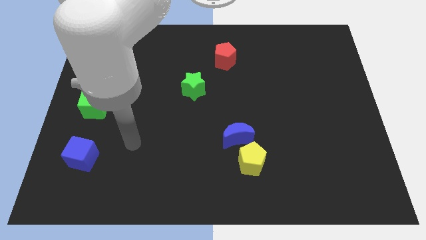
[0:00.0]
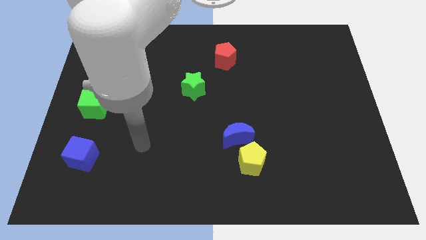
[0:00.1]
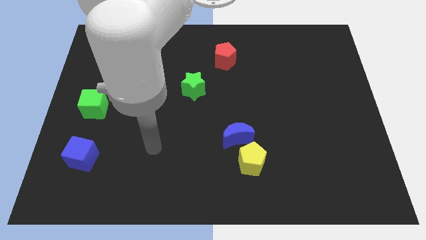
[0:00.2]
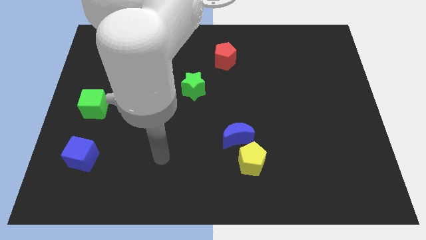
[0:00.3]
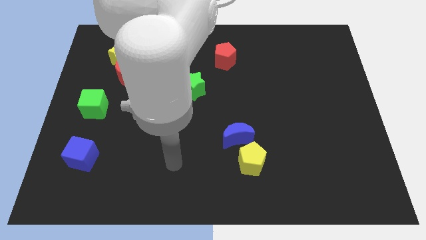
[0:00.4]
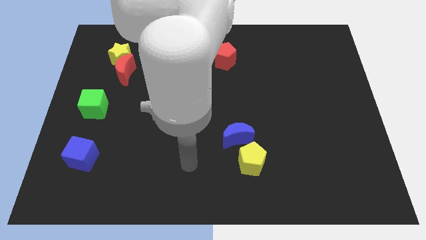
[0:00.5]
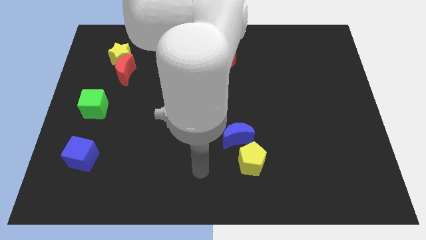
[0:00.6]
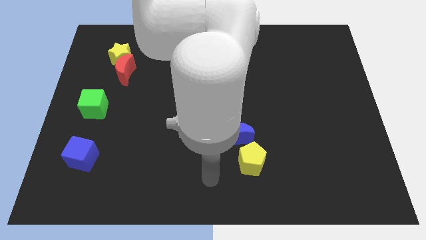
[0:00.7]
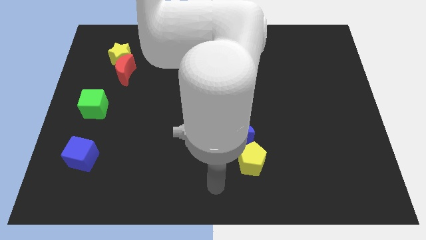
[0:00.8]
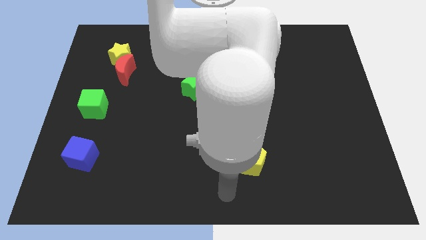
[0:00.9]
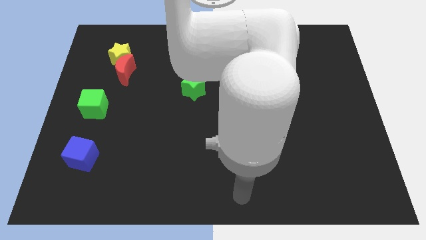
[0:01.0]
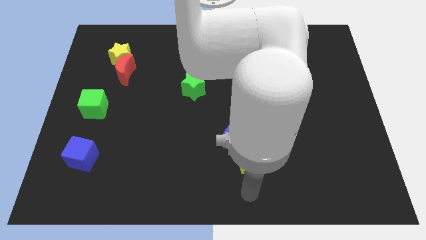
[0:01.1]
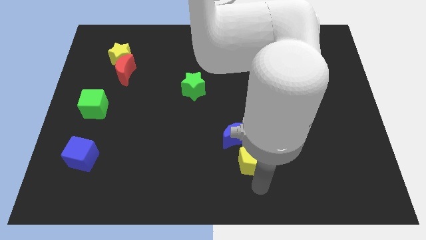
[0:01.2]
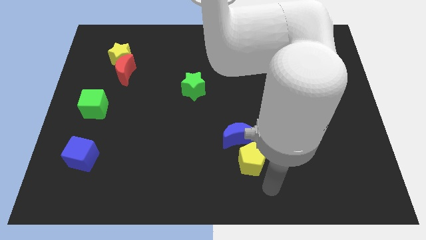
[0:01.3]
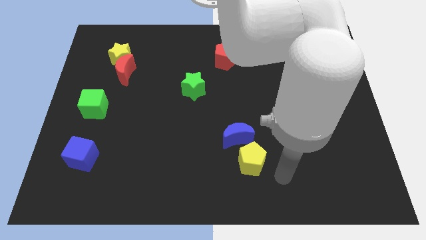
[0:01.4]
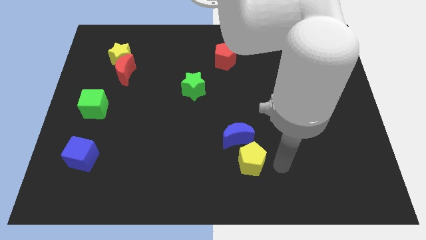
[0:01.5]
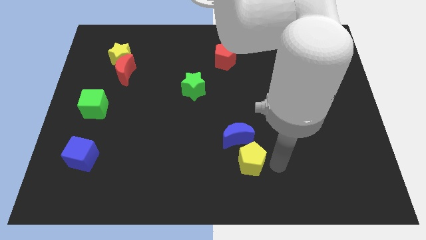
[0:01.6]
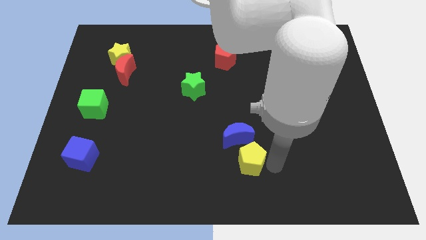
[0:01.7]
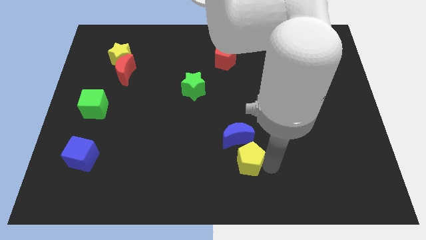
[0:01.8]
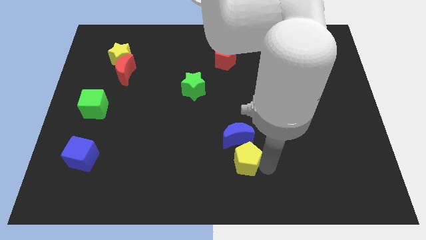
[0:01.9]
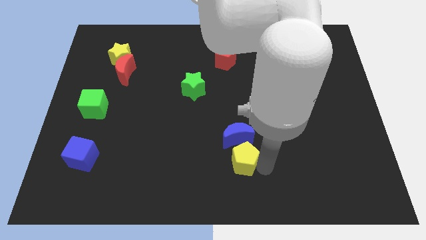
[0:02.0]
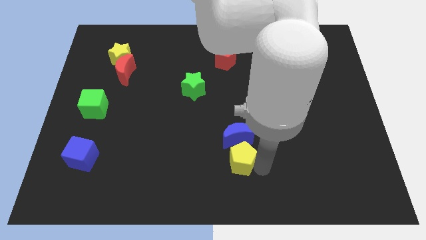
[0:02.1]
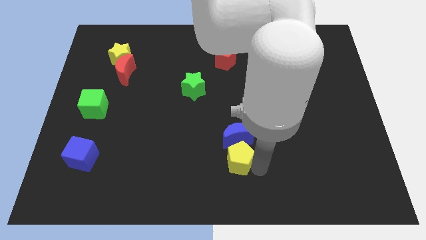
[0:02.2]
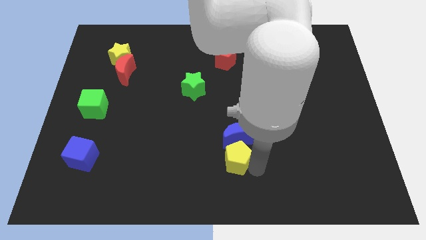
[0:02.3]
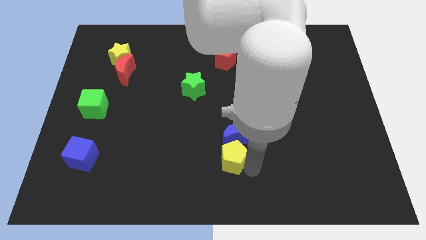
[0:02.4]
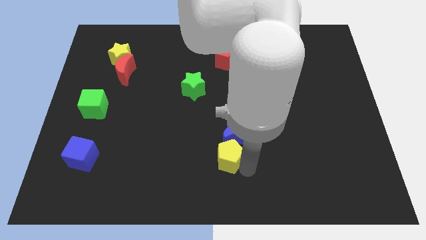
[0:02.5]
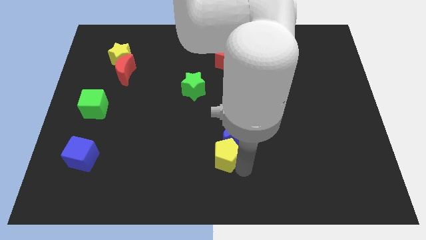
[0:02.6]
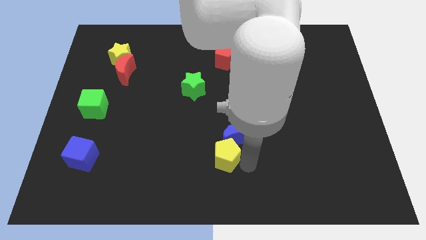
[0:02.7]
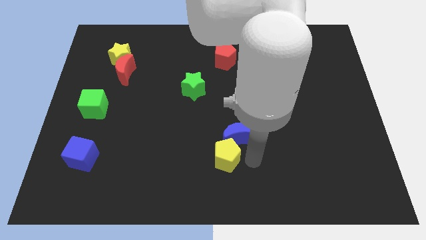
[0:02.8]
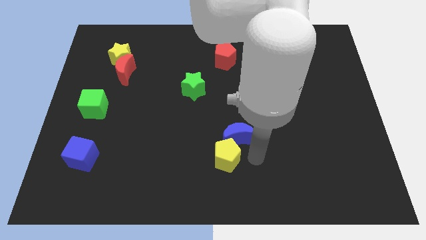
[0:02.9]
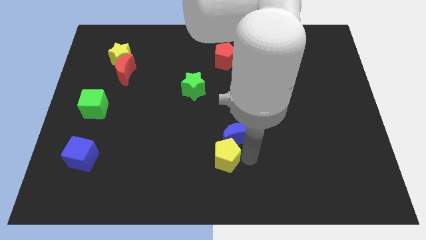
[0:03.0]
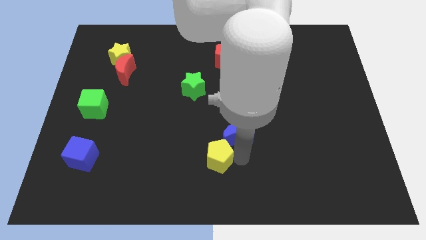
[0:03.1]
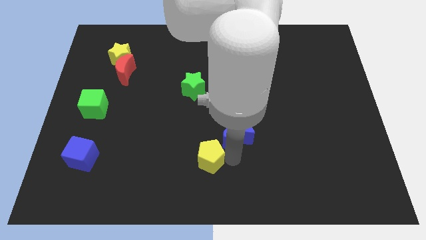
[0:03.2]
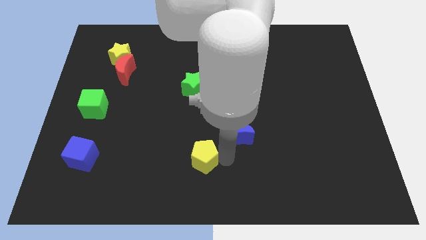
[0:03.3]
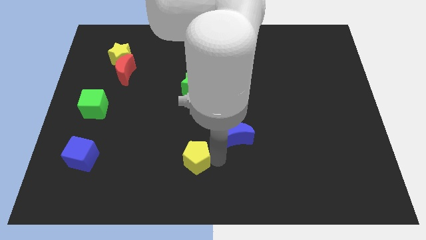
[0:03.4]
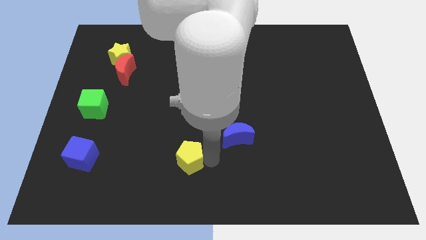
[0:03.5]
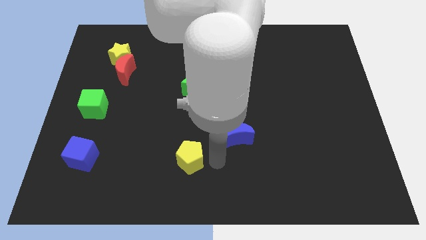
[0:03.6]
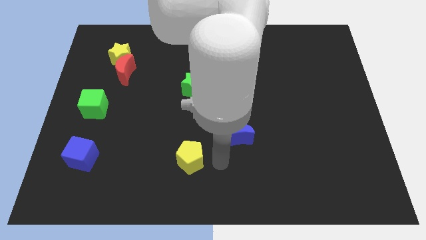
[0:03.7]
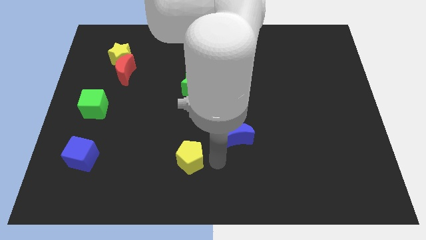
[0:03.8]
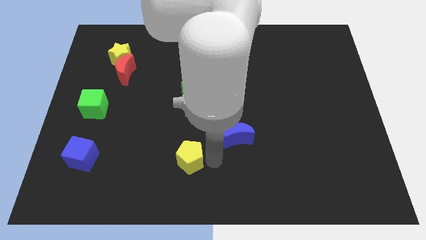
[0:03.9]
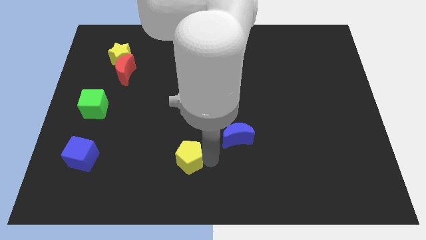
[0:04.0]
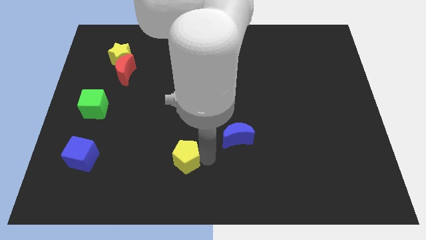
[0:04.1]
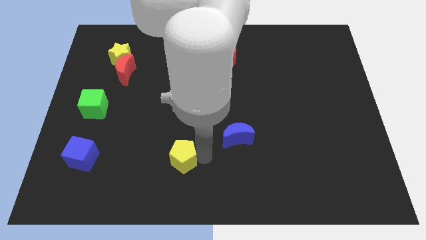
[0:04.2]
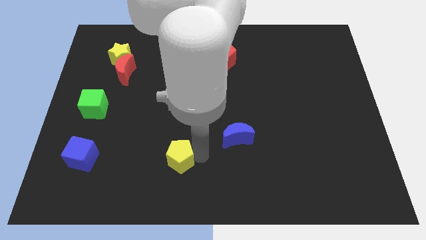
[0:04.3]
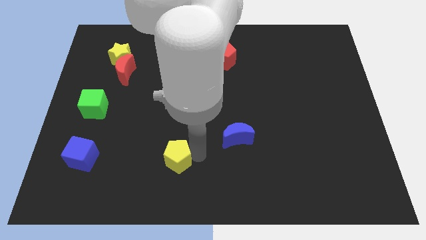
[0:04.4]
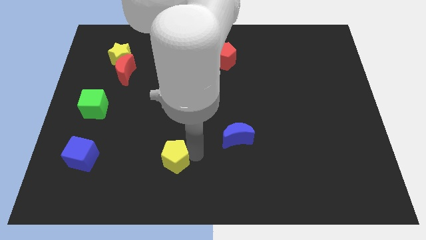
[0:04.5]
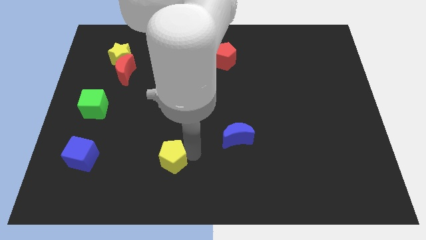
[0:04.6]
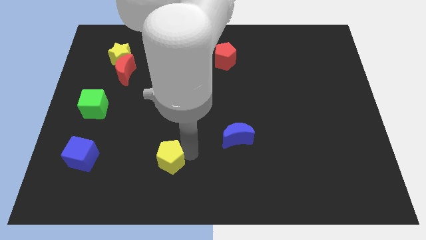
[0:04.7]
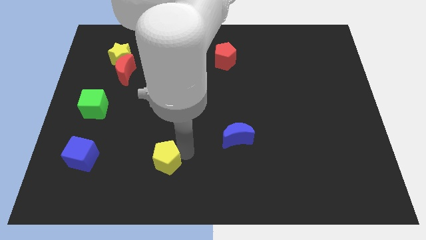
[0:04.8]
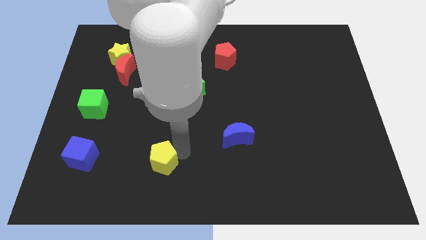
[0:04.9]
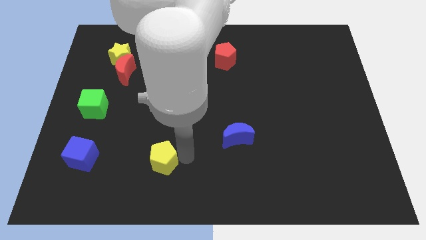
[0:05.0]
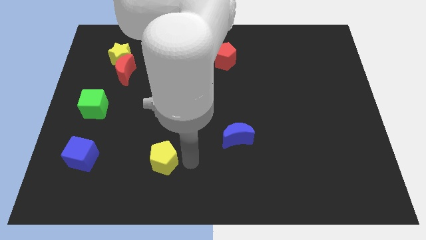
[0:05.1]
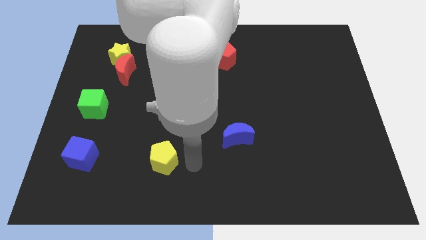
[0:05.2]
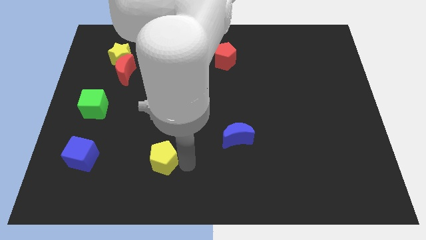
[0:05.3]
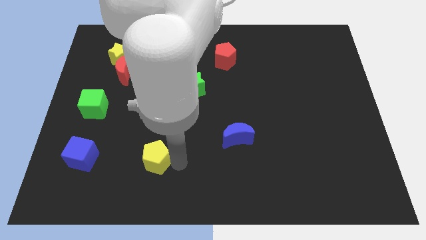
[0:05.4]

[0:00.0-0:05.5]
slide the yellow pentagon just right of the blue cube
